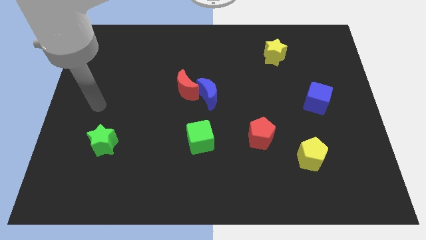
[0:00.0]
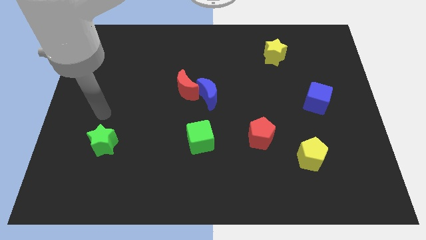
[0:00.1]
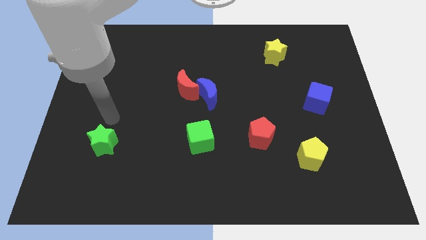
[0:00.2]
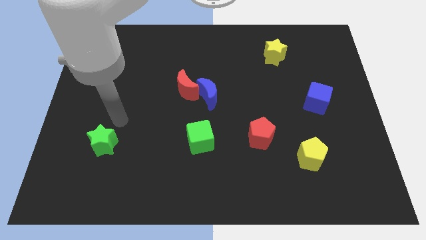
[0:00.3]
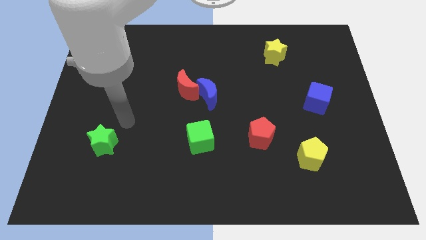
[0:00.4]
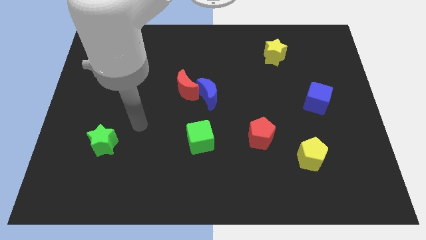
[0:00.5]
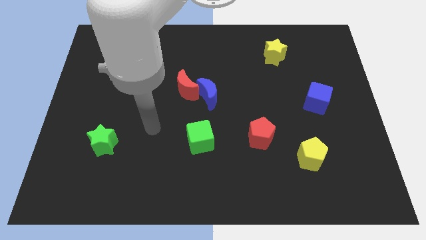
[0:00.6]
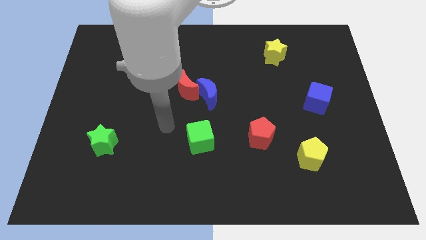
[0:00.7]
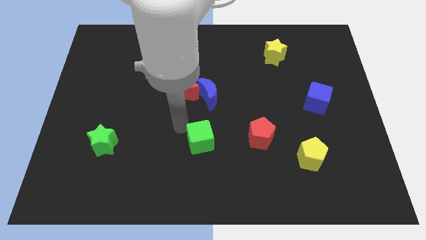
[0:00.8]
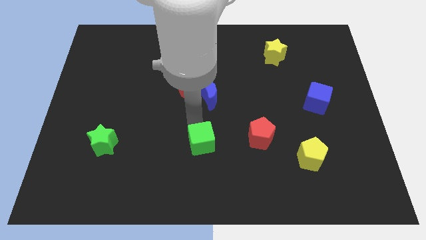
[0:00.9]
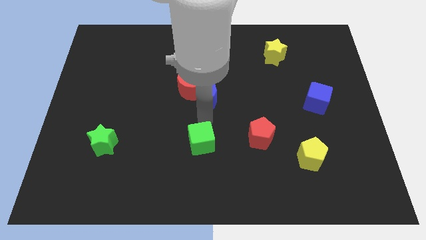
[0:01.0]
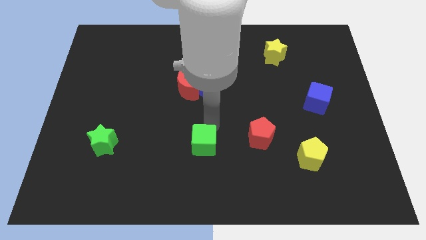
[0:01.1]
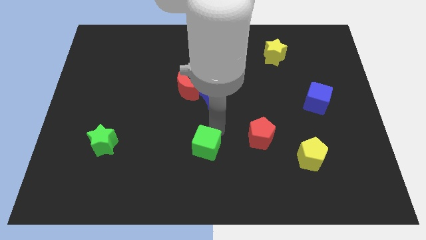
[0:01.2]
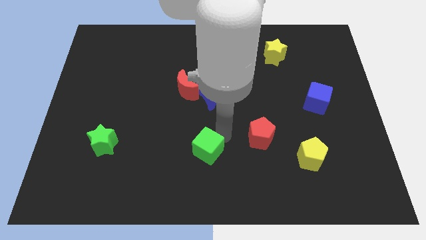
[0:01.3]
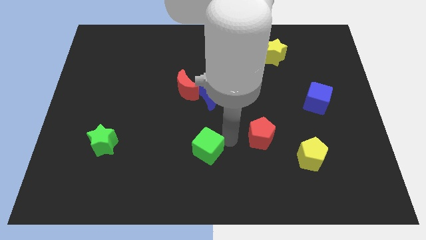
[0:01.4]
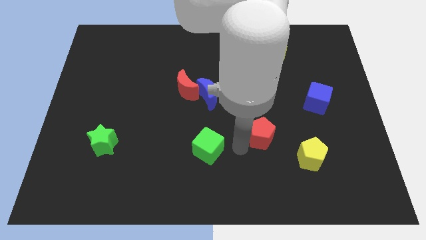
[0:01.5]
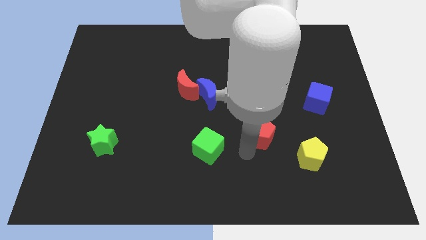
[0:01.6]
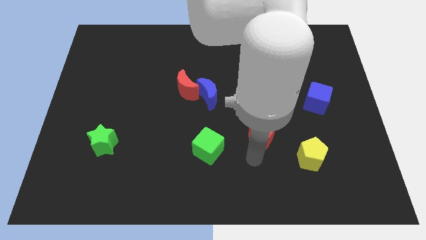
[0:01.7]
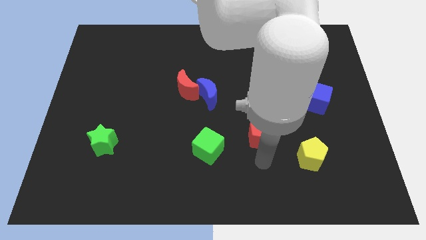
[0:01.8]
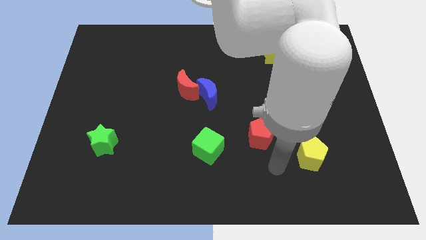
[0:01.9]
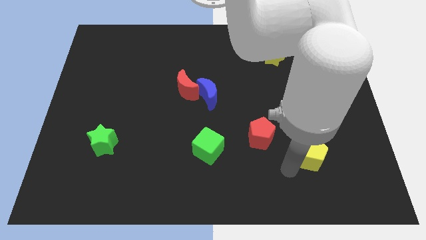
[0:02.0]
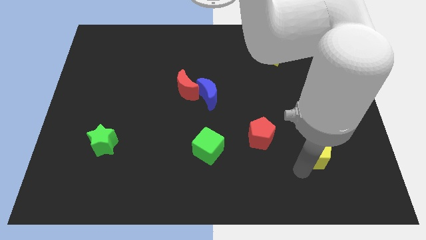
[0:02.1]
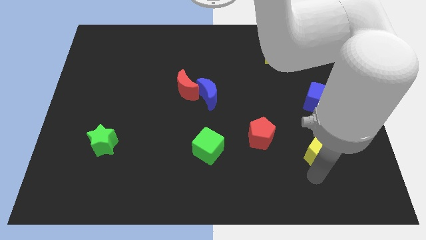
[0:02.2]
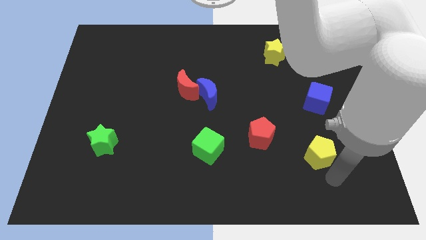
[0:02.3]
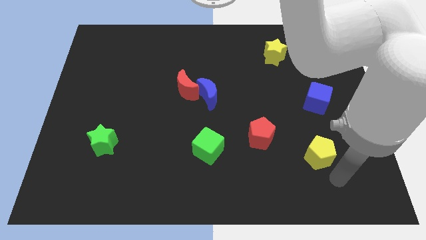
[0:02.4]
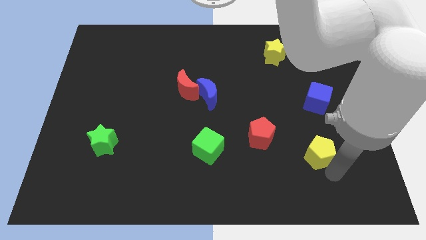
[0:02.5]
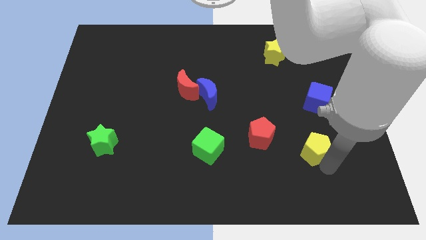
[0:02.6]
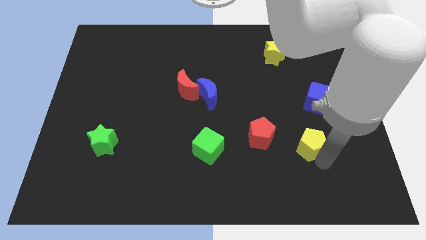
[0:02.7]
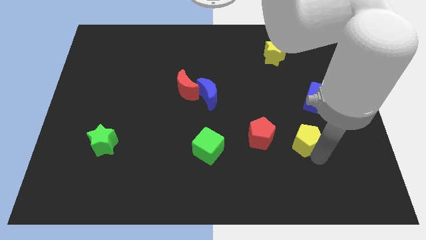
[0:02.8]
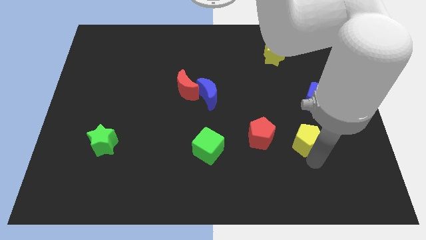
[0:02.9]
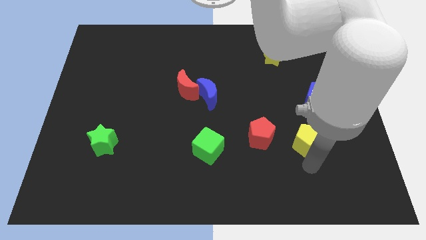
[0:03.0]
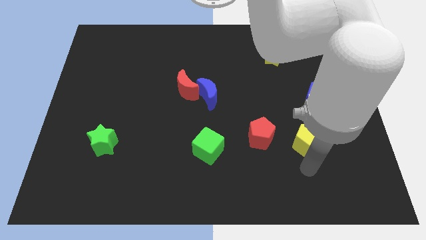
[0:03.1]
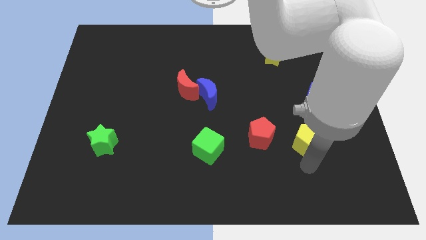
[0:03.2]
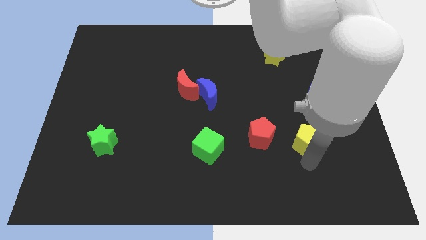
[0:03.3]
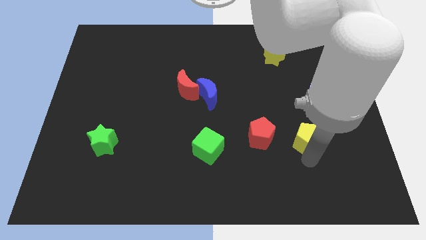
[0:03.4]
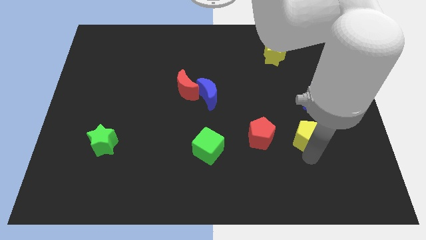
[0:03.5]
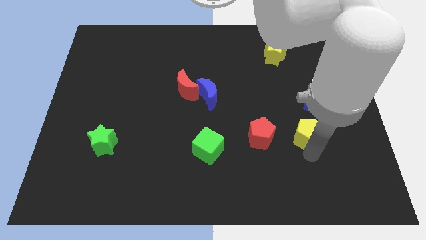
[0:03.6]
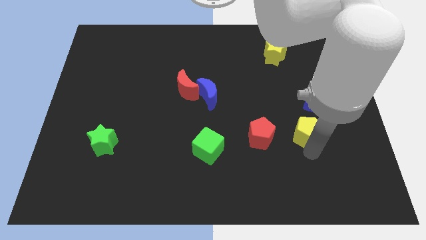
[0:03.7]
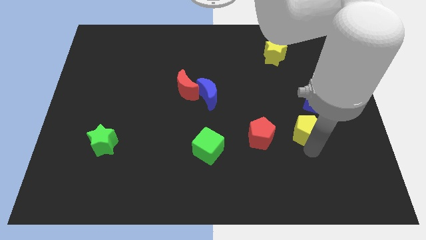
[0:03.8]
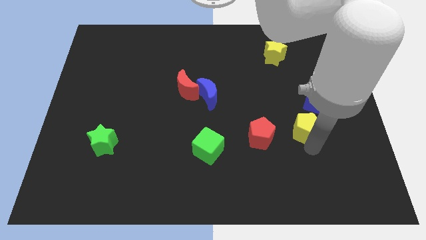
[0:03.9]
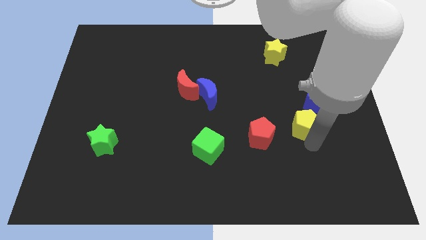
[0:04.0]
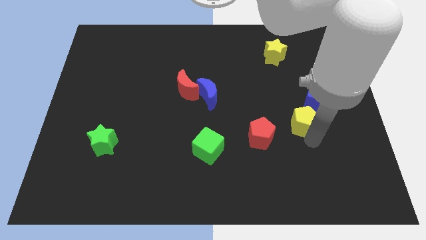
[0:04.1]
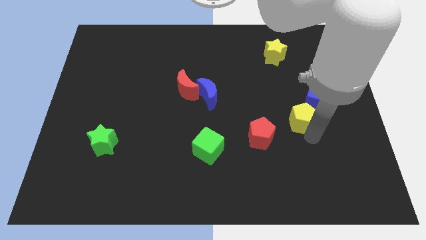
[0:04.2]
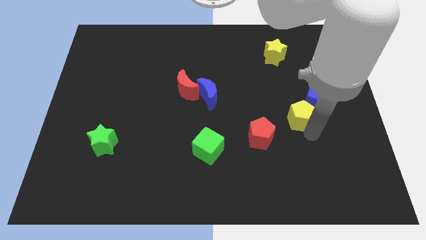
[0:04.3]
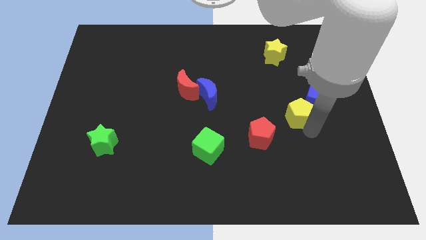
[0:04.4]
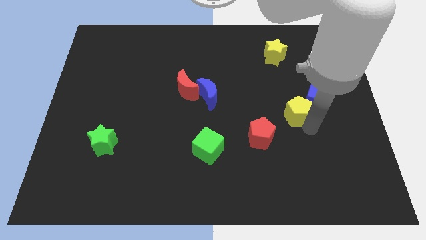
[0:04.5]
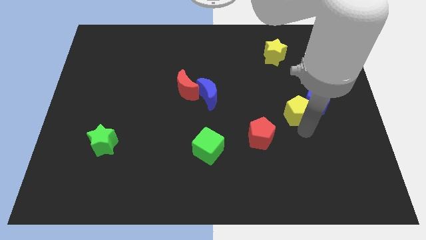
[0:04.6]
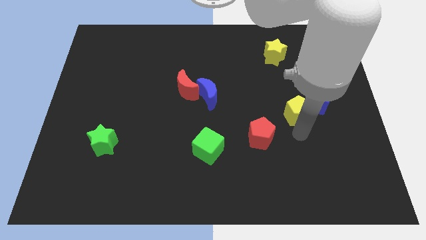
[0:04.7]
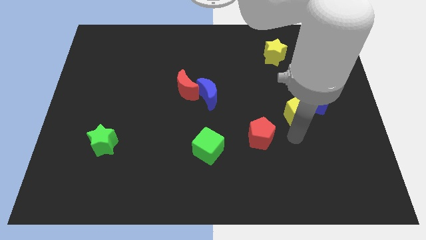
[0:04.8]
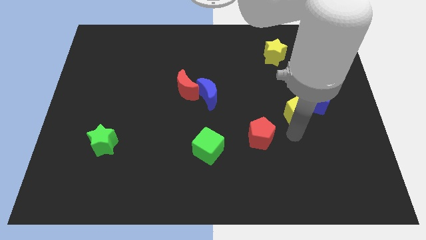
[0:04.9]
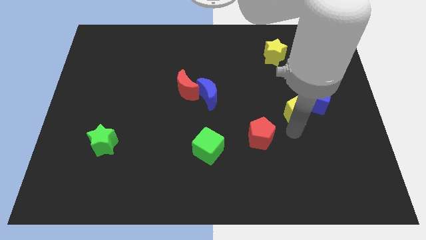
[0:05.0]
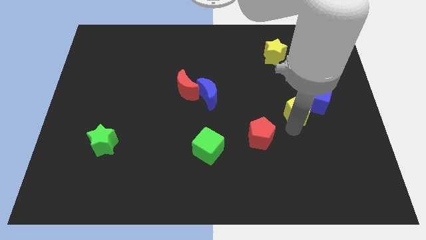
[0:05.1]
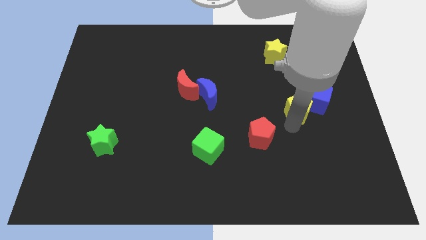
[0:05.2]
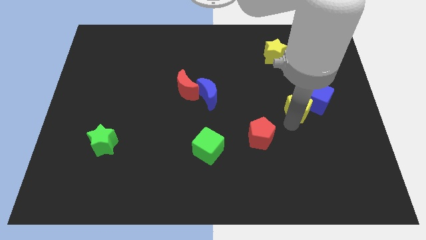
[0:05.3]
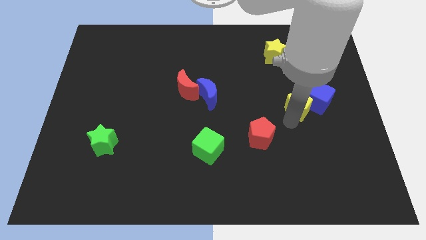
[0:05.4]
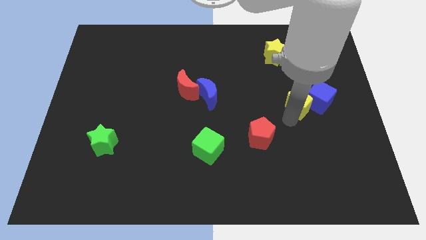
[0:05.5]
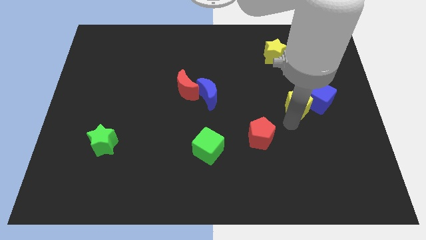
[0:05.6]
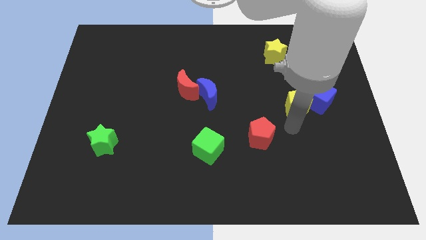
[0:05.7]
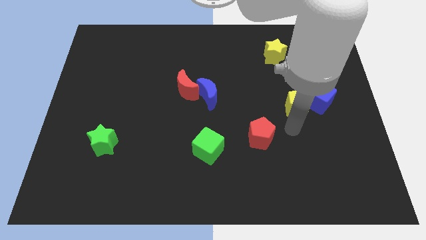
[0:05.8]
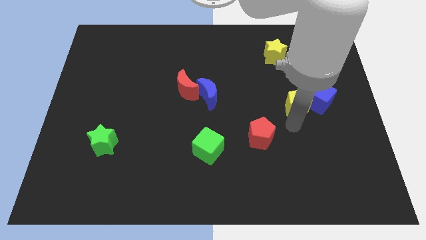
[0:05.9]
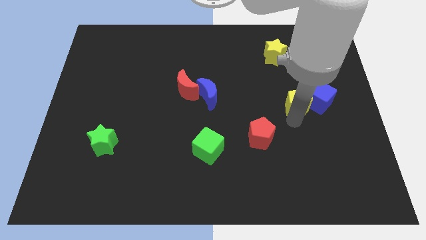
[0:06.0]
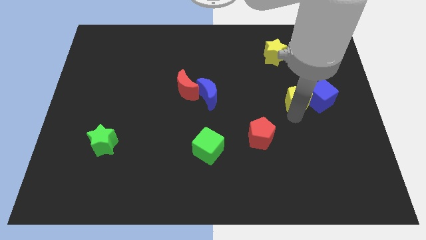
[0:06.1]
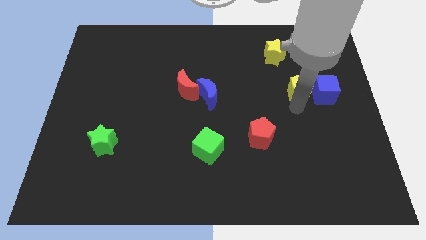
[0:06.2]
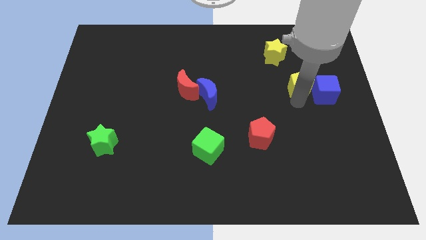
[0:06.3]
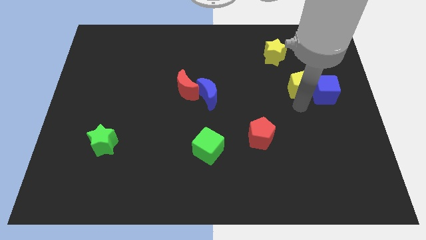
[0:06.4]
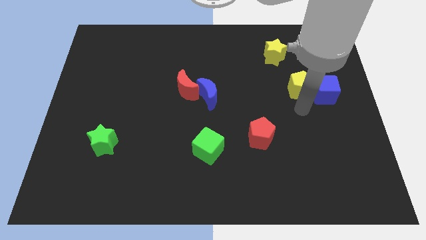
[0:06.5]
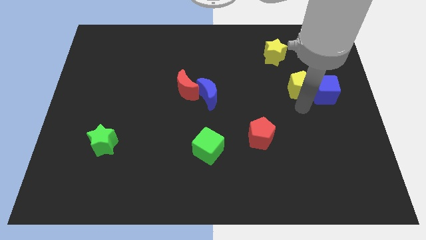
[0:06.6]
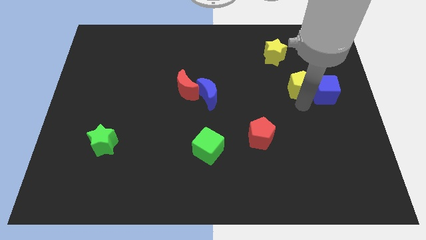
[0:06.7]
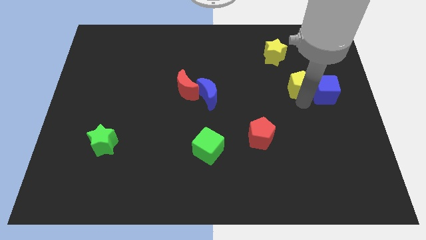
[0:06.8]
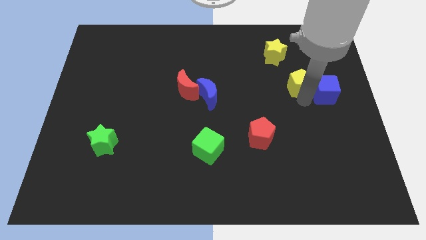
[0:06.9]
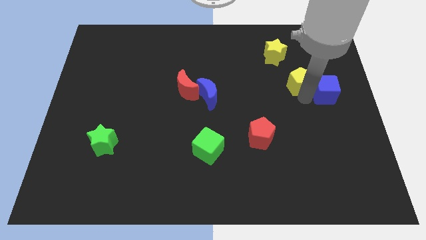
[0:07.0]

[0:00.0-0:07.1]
push the yellow pentagon to the bottom right of the yellow star
